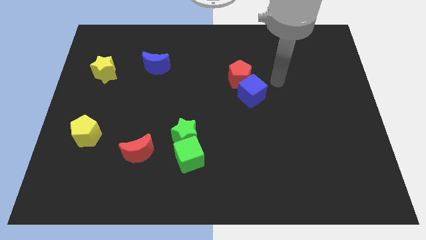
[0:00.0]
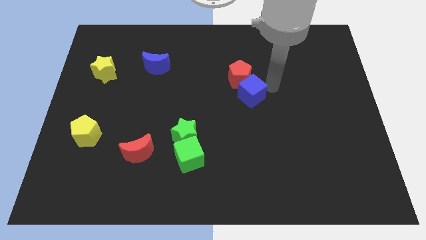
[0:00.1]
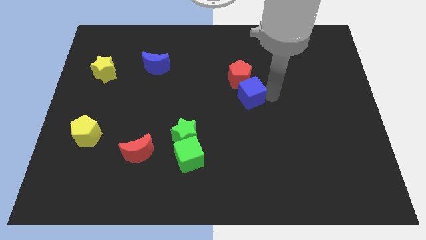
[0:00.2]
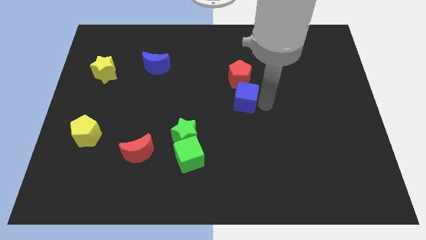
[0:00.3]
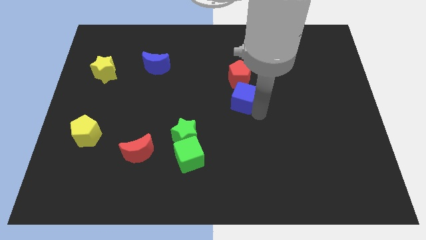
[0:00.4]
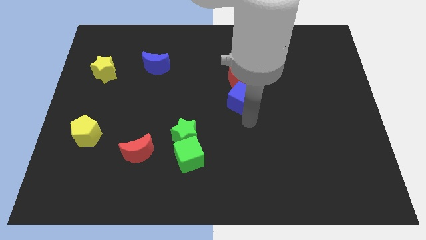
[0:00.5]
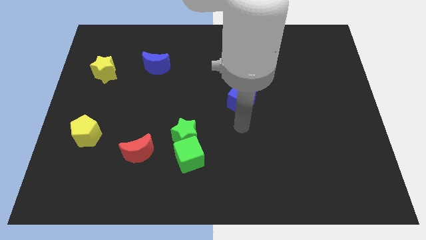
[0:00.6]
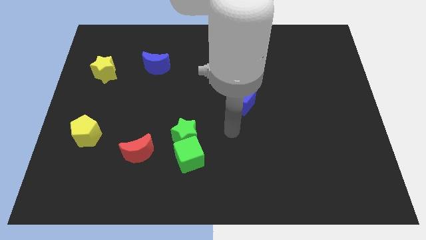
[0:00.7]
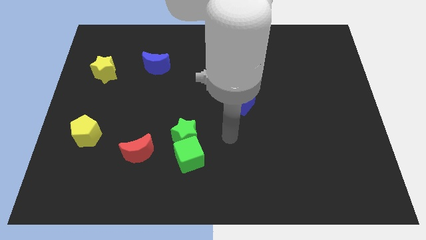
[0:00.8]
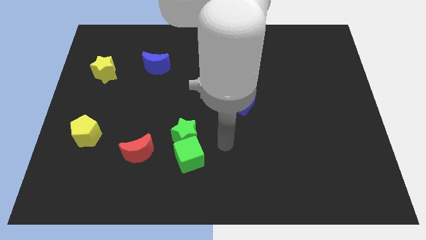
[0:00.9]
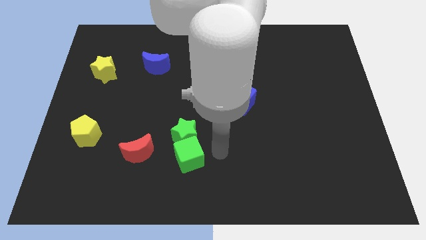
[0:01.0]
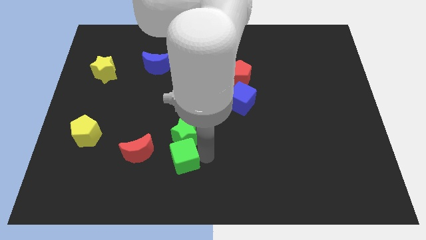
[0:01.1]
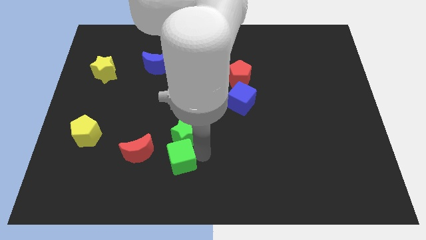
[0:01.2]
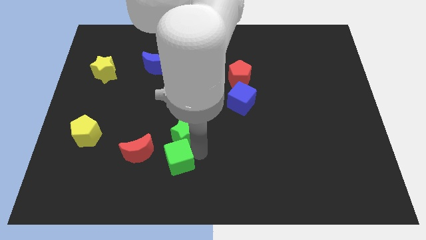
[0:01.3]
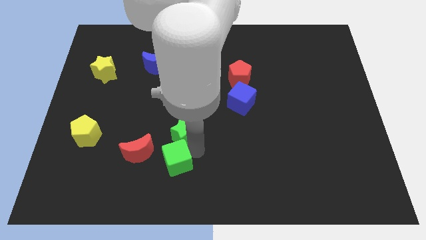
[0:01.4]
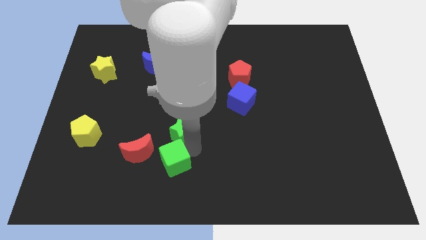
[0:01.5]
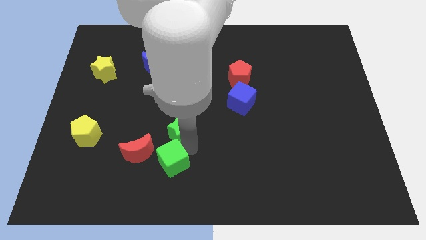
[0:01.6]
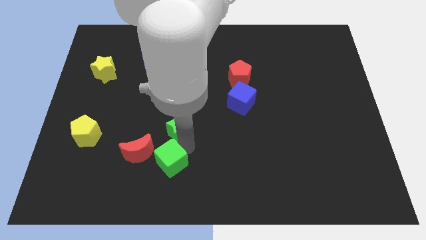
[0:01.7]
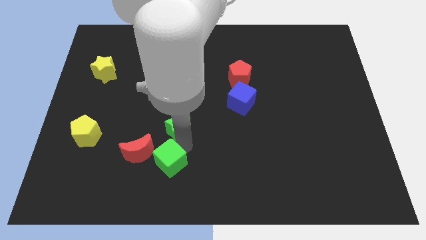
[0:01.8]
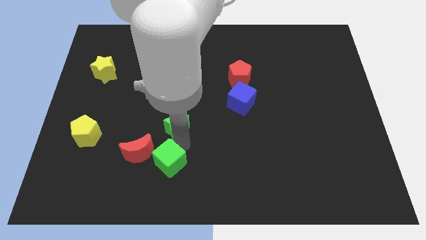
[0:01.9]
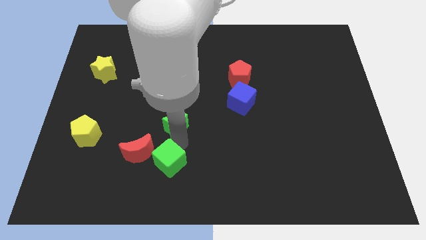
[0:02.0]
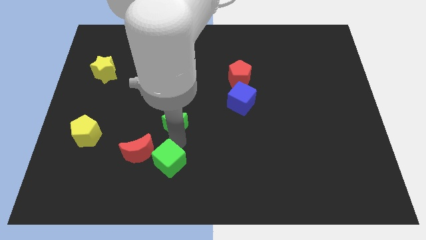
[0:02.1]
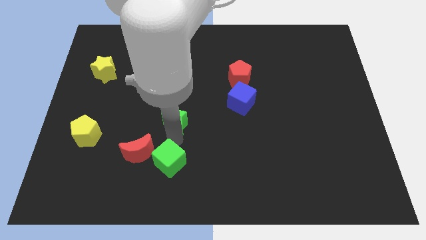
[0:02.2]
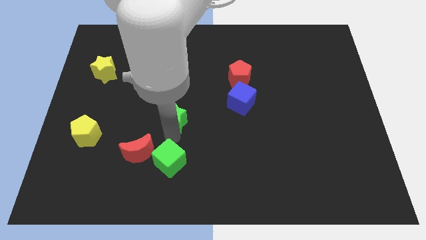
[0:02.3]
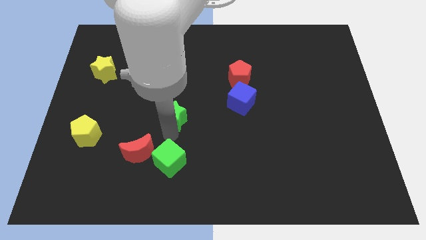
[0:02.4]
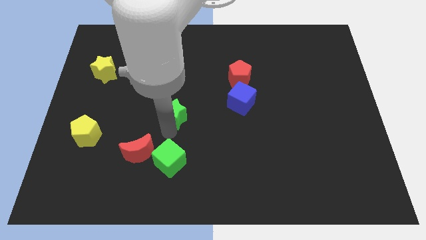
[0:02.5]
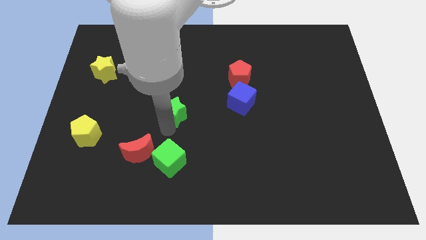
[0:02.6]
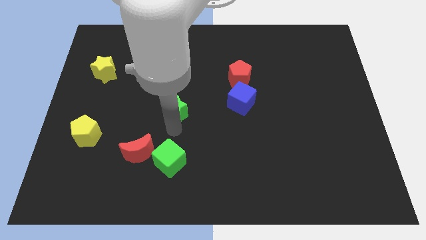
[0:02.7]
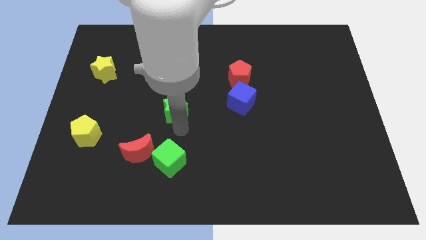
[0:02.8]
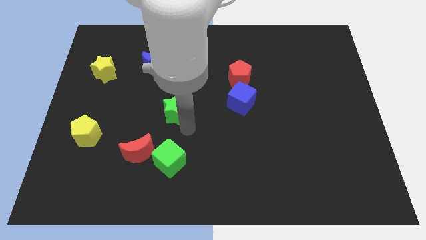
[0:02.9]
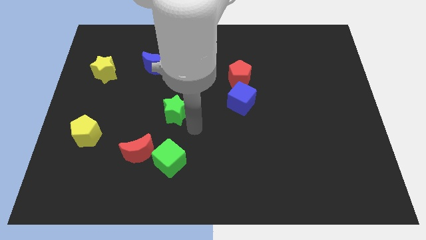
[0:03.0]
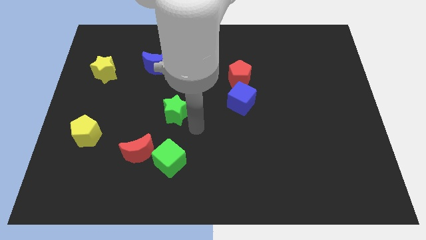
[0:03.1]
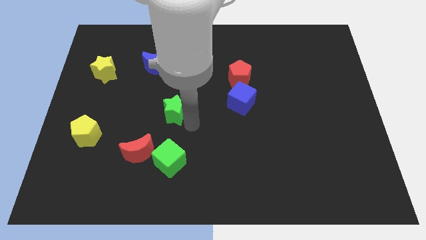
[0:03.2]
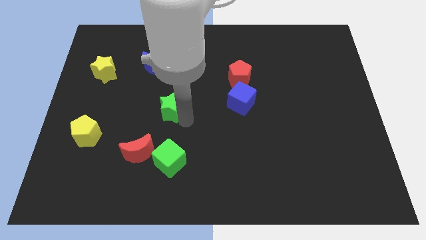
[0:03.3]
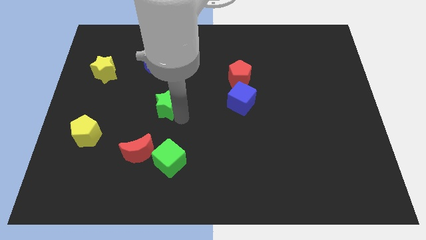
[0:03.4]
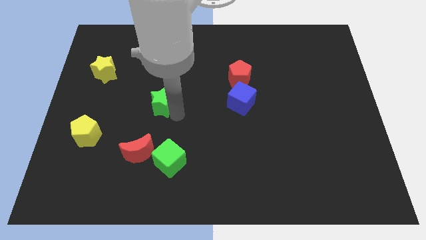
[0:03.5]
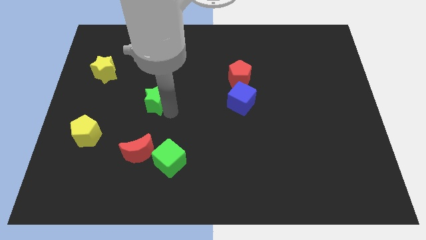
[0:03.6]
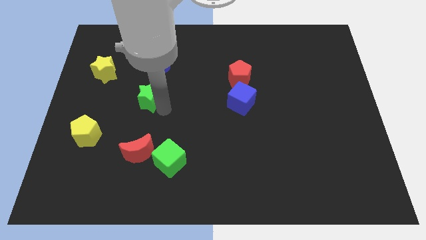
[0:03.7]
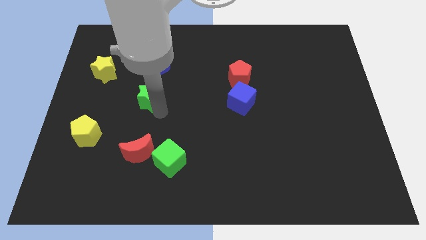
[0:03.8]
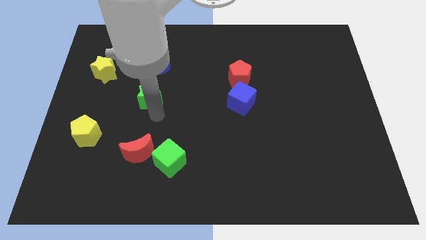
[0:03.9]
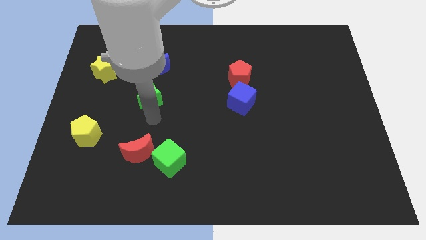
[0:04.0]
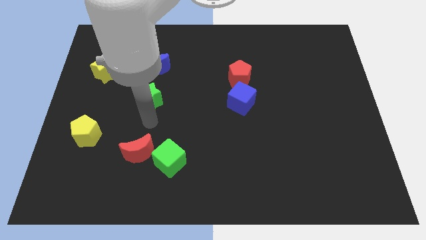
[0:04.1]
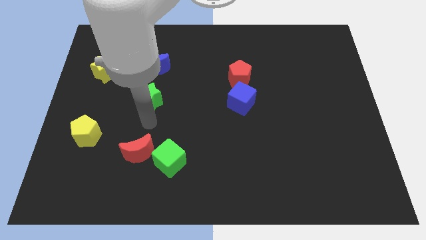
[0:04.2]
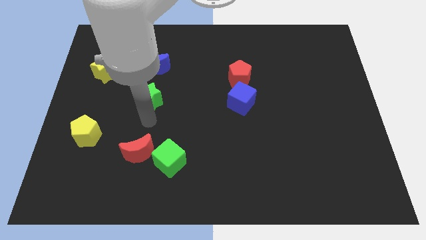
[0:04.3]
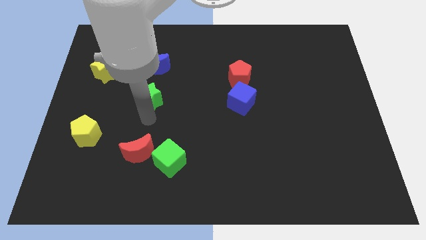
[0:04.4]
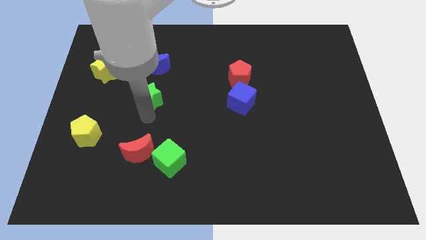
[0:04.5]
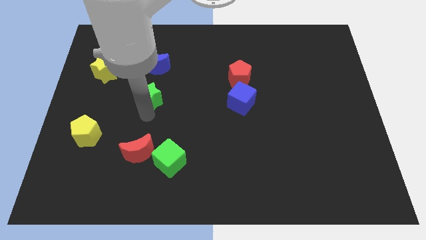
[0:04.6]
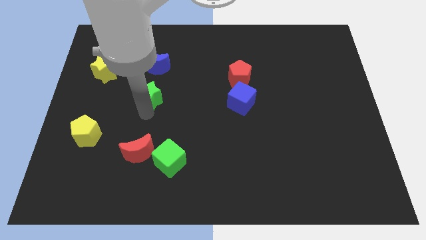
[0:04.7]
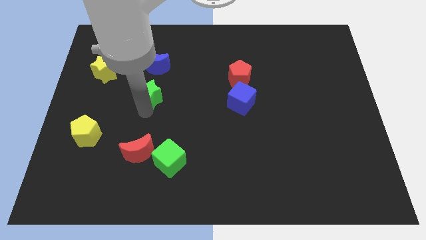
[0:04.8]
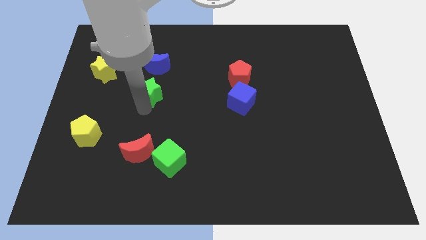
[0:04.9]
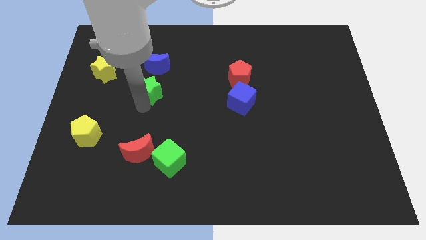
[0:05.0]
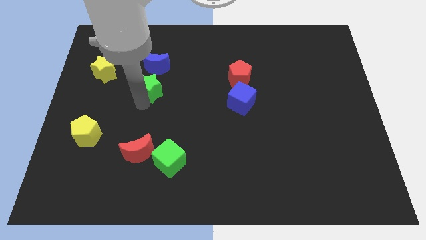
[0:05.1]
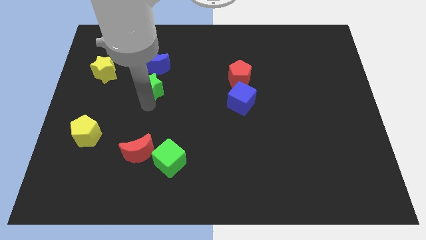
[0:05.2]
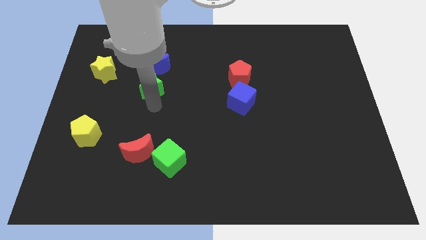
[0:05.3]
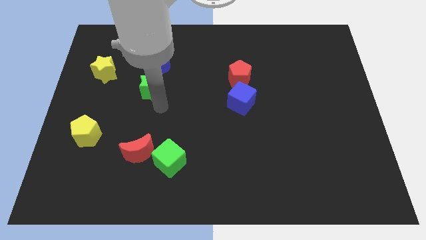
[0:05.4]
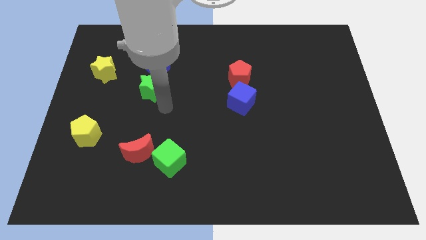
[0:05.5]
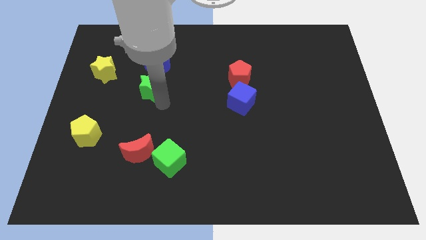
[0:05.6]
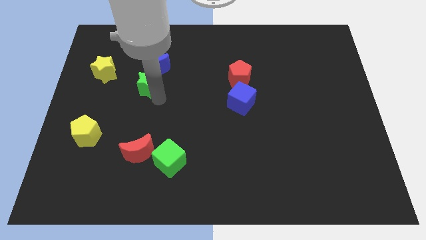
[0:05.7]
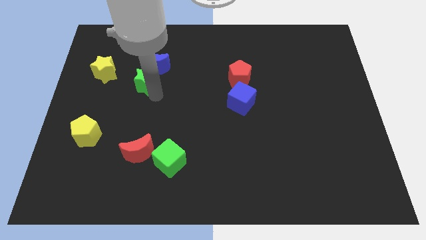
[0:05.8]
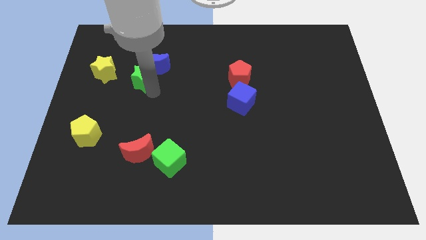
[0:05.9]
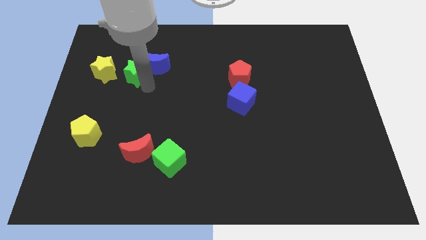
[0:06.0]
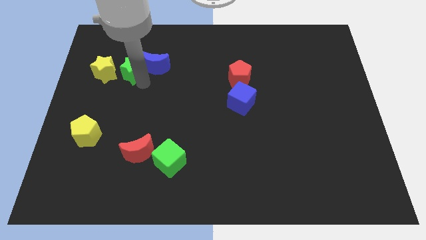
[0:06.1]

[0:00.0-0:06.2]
slide the green star to the top right of the yellow star
